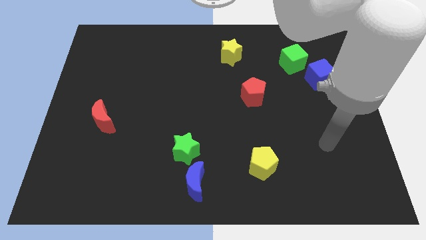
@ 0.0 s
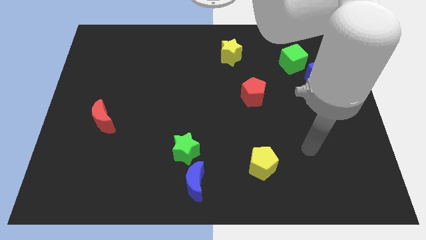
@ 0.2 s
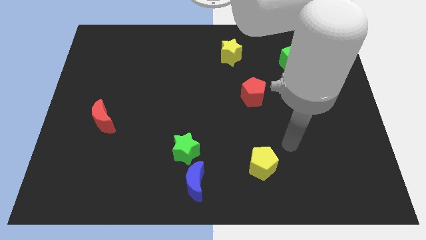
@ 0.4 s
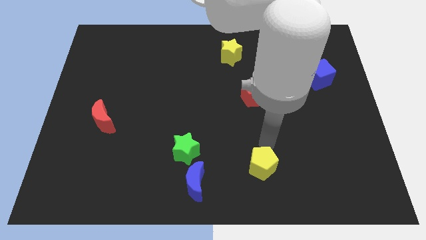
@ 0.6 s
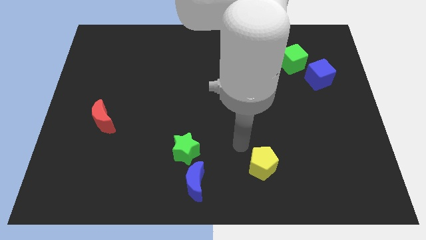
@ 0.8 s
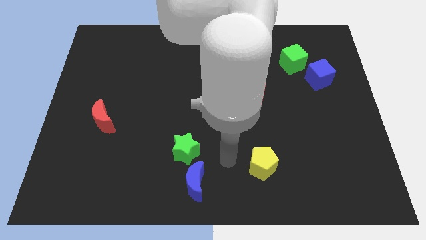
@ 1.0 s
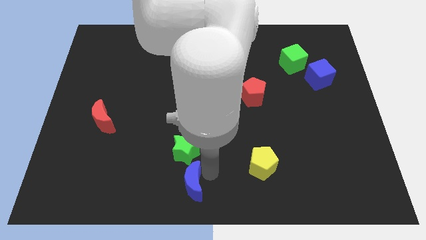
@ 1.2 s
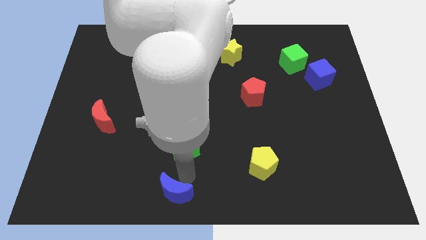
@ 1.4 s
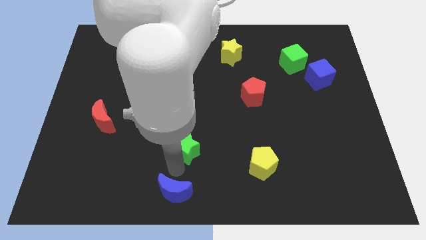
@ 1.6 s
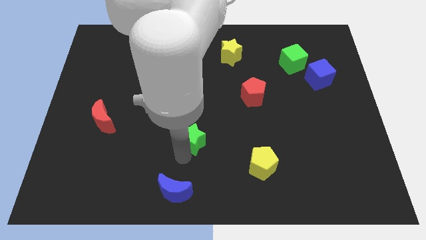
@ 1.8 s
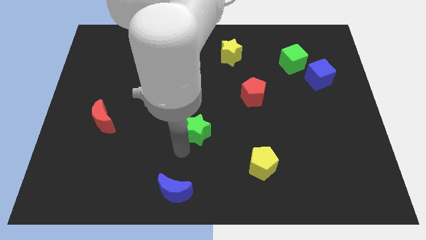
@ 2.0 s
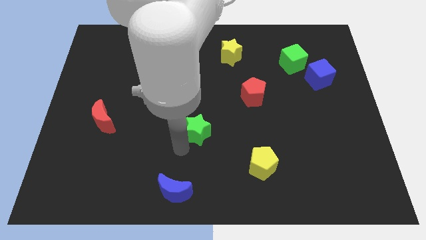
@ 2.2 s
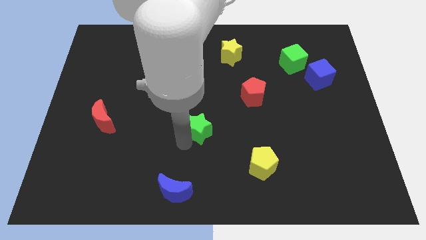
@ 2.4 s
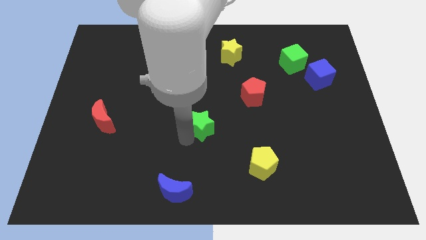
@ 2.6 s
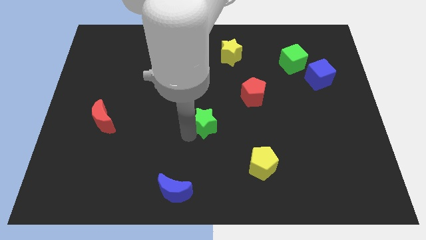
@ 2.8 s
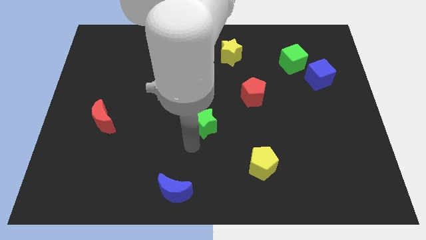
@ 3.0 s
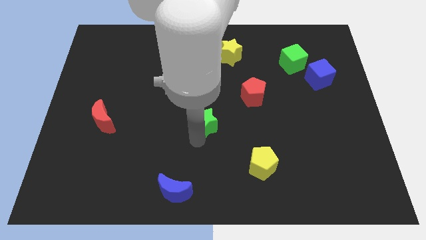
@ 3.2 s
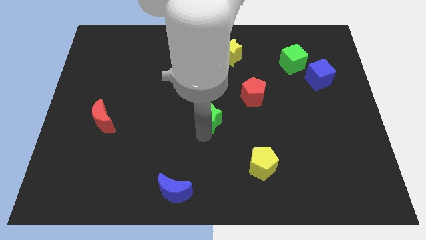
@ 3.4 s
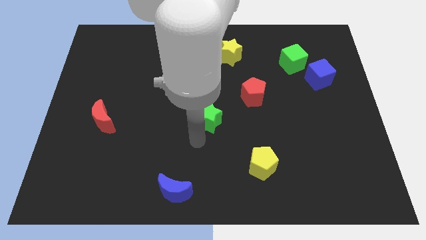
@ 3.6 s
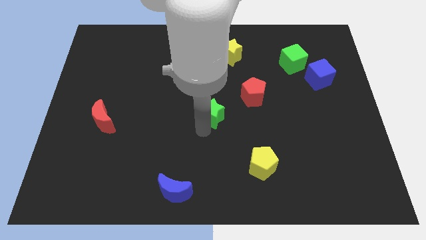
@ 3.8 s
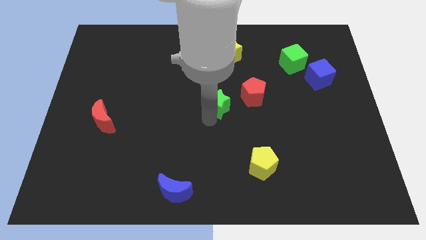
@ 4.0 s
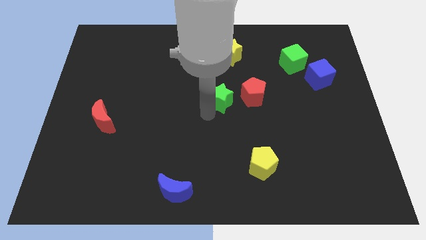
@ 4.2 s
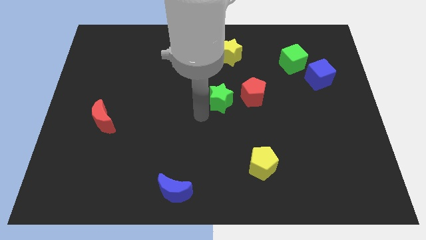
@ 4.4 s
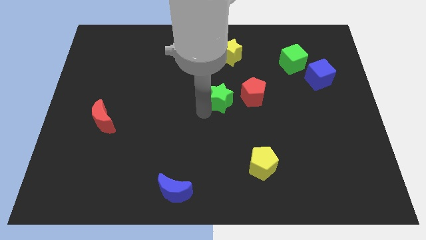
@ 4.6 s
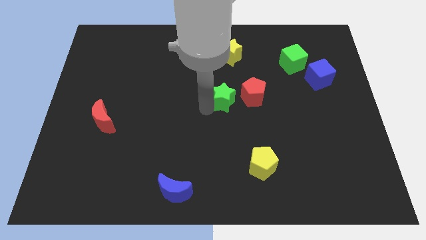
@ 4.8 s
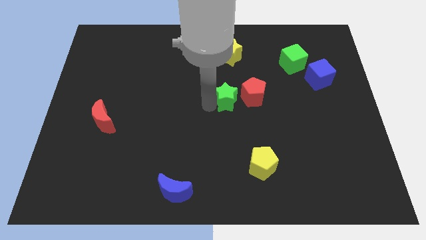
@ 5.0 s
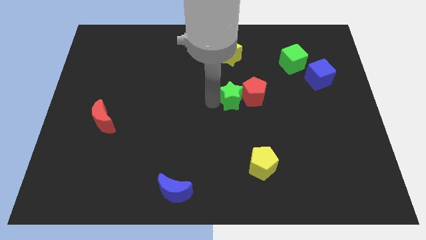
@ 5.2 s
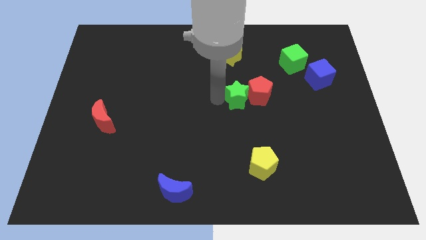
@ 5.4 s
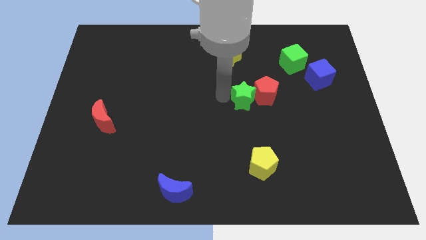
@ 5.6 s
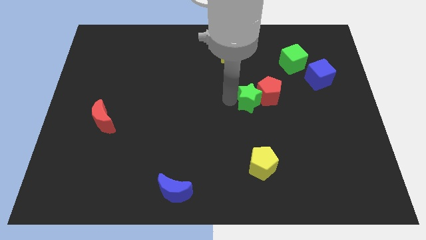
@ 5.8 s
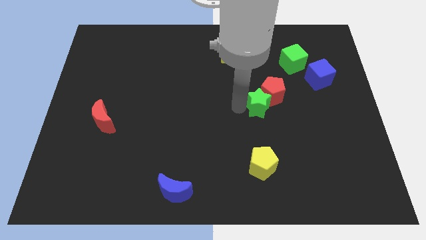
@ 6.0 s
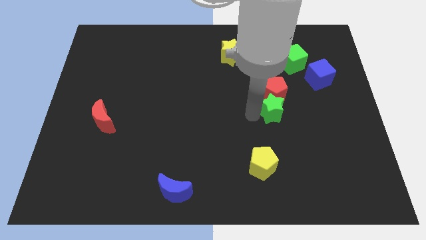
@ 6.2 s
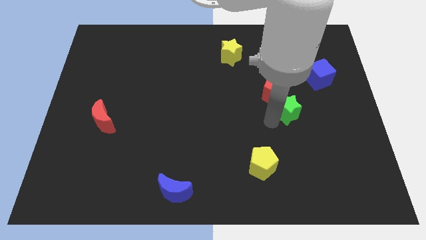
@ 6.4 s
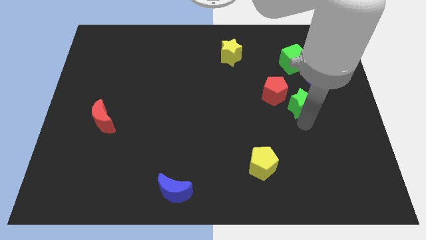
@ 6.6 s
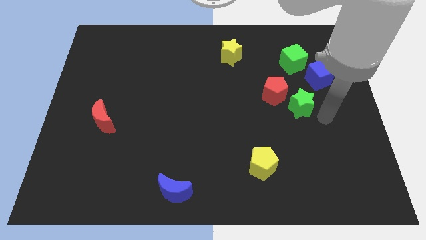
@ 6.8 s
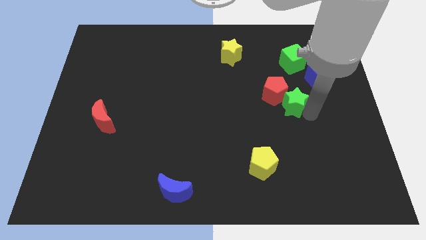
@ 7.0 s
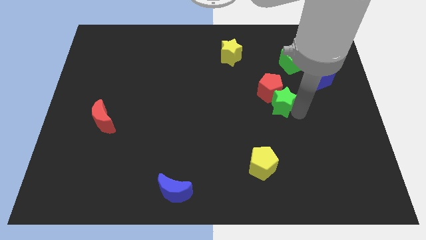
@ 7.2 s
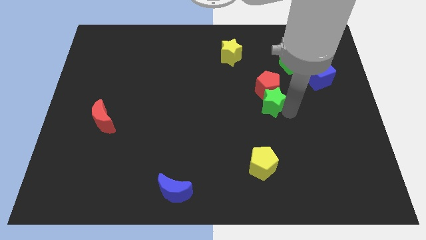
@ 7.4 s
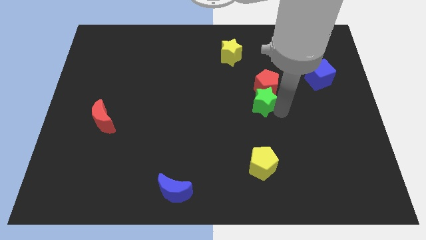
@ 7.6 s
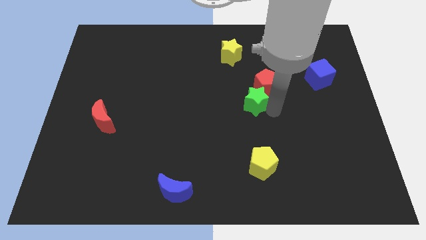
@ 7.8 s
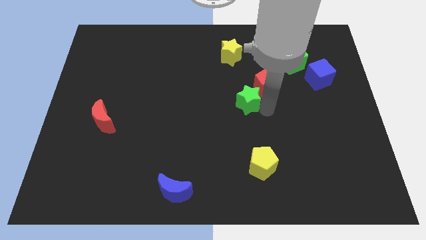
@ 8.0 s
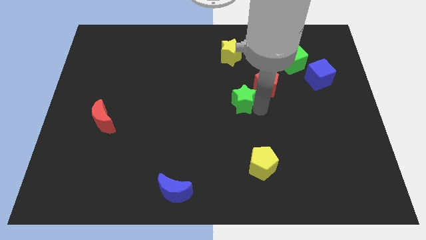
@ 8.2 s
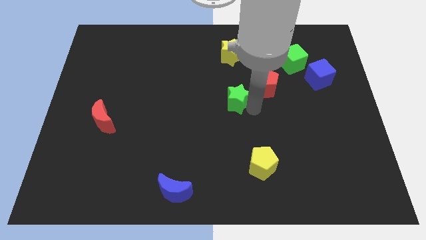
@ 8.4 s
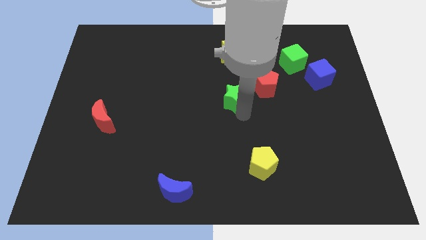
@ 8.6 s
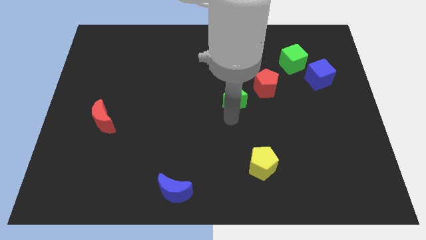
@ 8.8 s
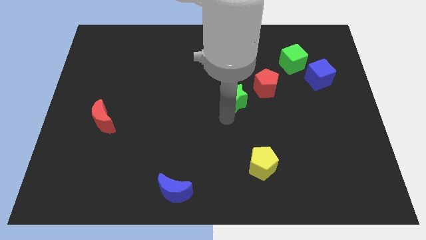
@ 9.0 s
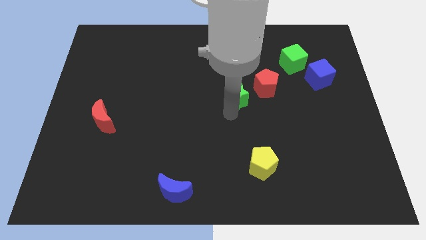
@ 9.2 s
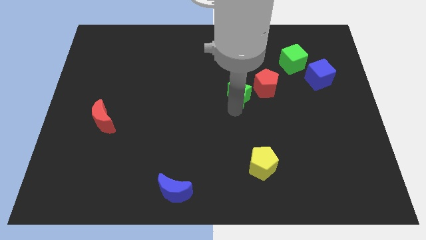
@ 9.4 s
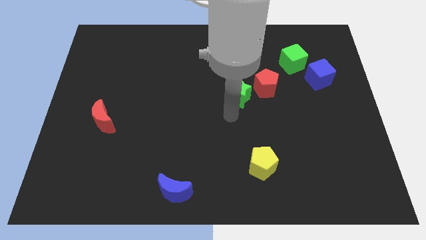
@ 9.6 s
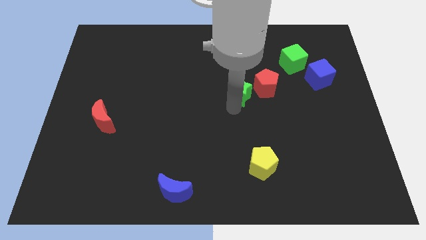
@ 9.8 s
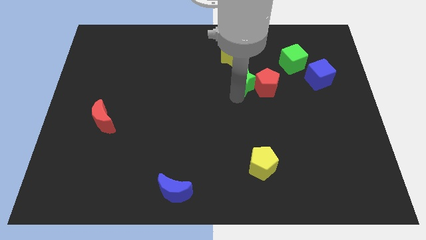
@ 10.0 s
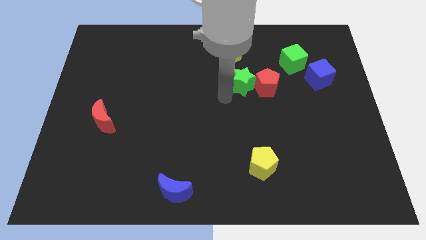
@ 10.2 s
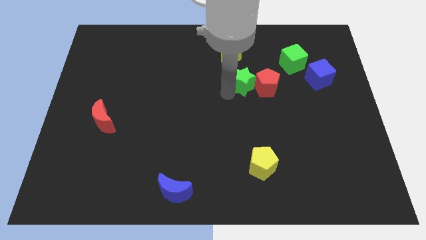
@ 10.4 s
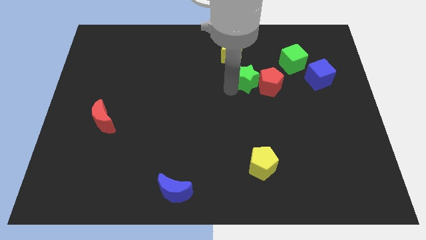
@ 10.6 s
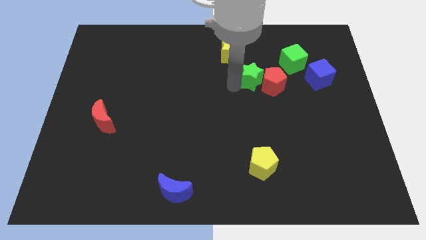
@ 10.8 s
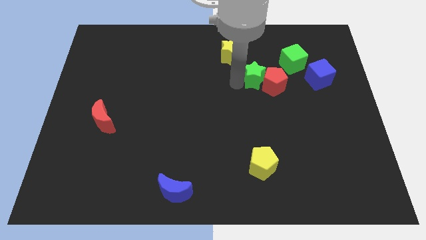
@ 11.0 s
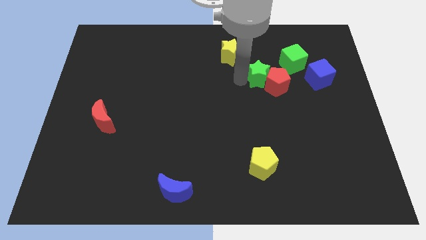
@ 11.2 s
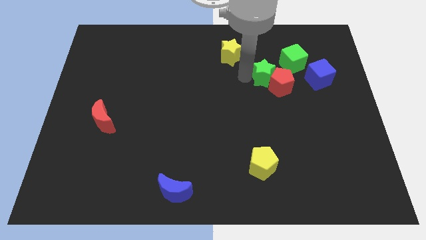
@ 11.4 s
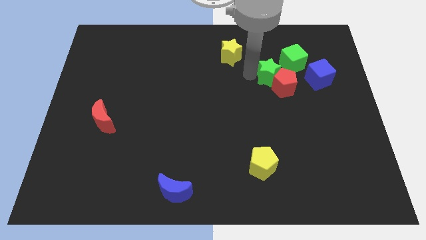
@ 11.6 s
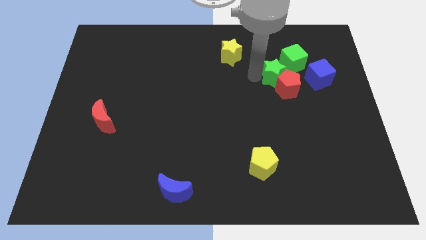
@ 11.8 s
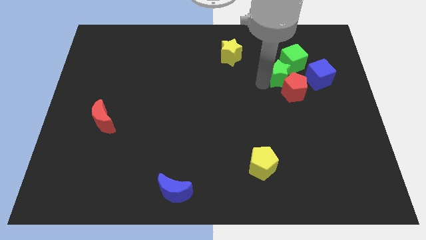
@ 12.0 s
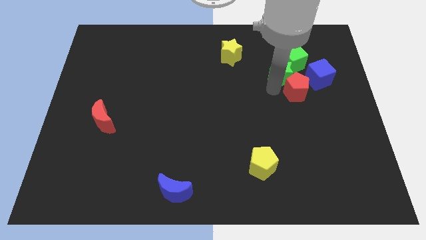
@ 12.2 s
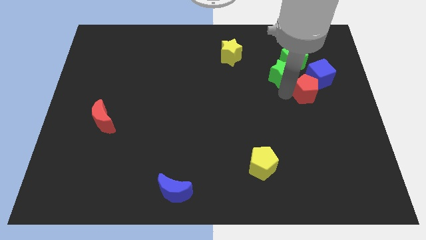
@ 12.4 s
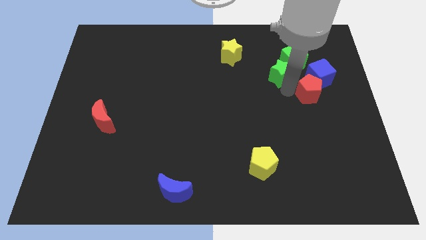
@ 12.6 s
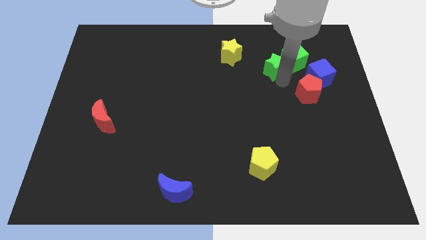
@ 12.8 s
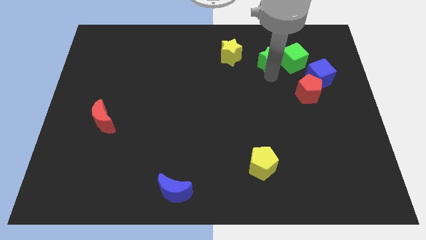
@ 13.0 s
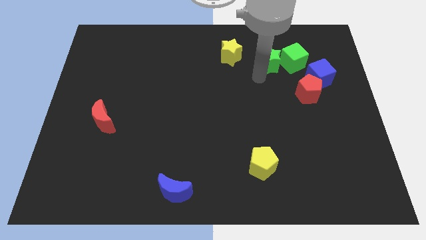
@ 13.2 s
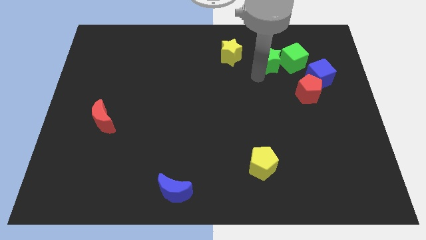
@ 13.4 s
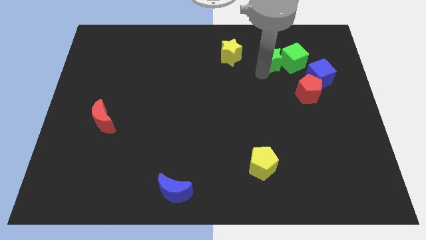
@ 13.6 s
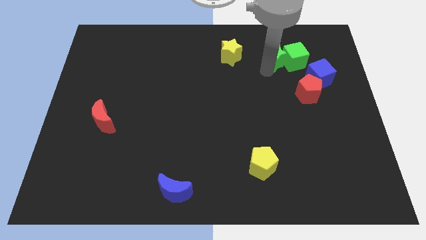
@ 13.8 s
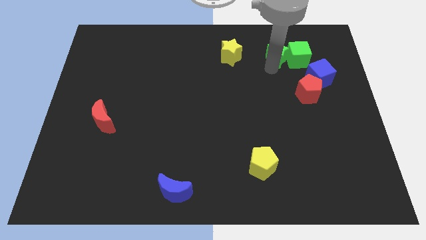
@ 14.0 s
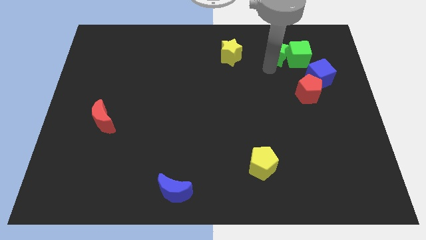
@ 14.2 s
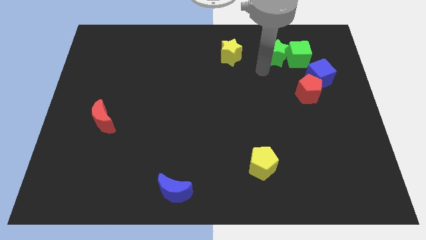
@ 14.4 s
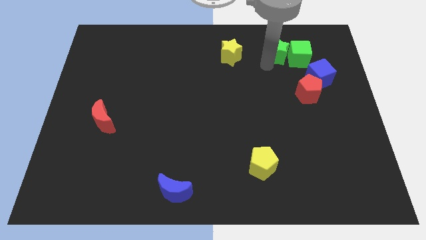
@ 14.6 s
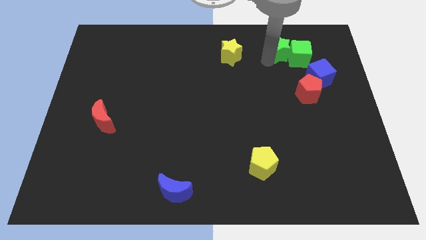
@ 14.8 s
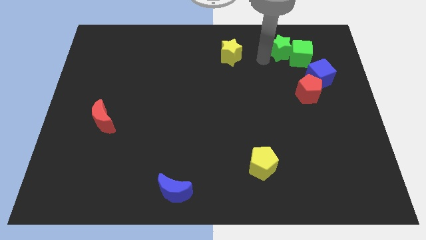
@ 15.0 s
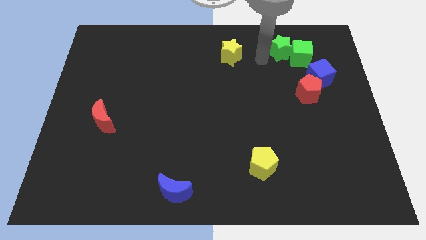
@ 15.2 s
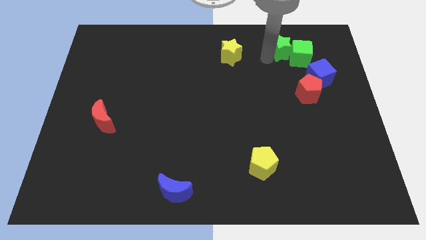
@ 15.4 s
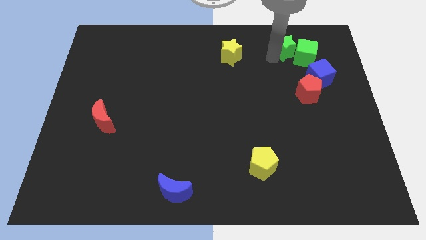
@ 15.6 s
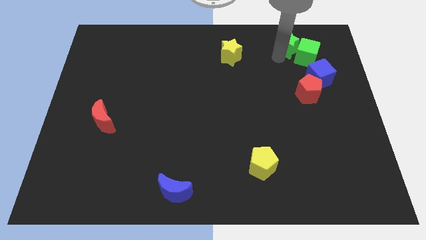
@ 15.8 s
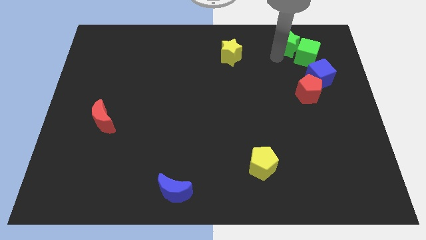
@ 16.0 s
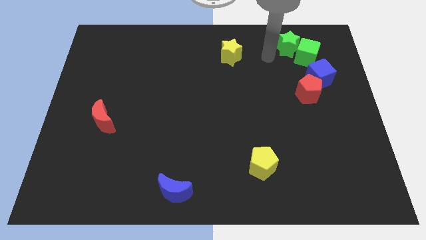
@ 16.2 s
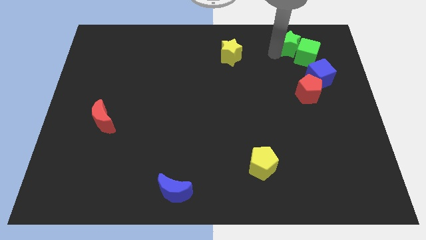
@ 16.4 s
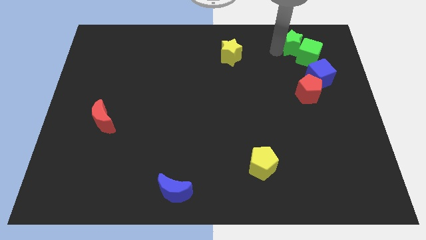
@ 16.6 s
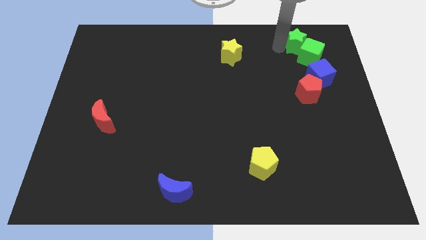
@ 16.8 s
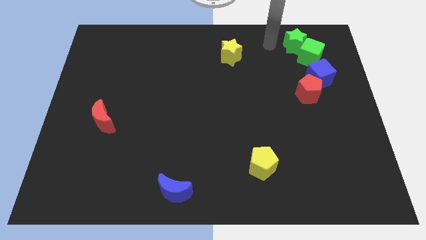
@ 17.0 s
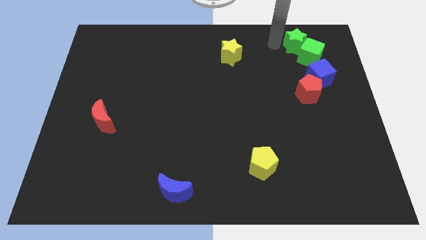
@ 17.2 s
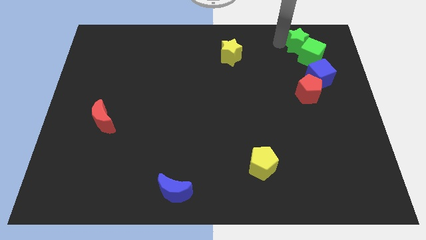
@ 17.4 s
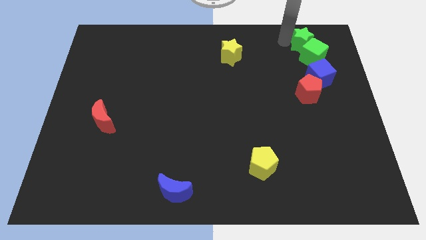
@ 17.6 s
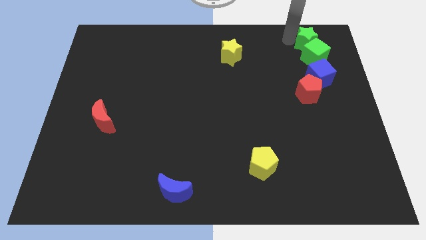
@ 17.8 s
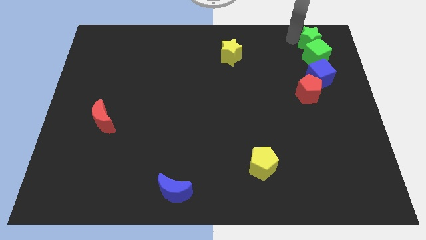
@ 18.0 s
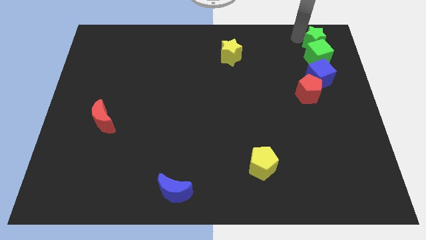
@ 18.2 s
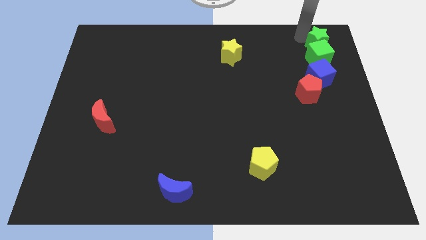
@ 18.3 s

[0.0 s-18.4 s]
put the green star to the upper right corner
